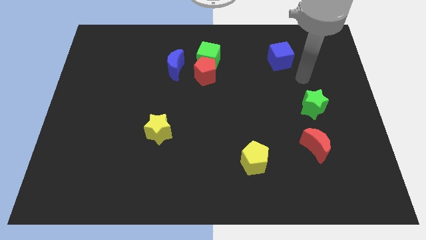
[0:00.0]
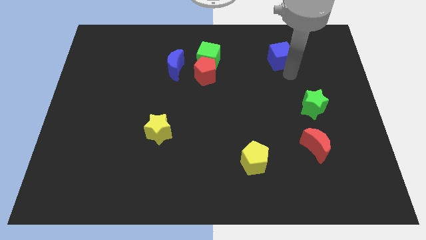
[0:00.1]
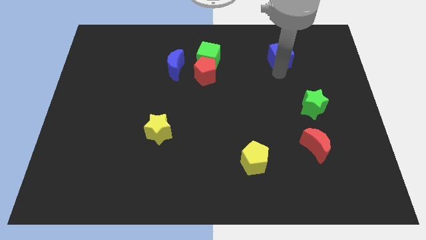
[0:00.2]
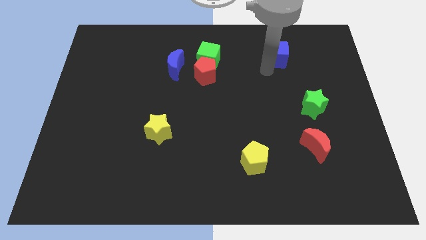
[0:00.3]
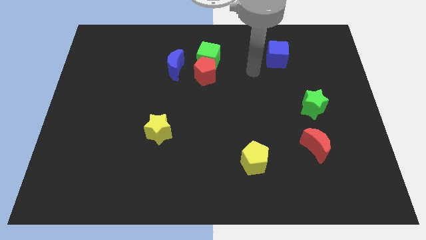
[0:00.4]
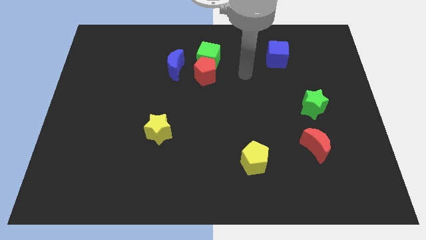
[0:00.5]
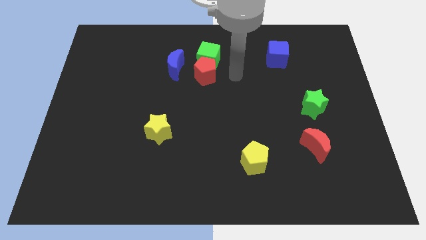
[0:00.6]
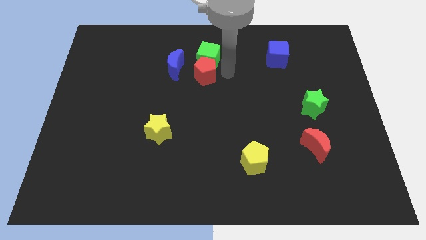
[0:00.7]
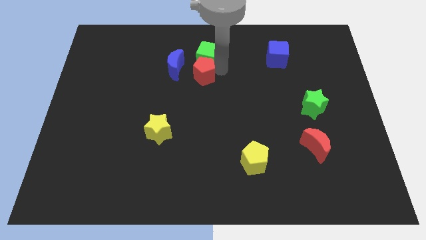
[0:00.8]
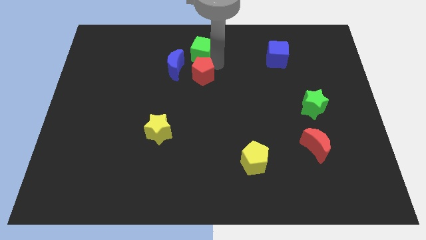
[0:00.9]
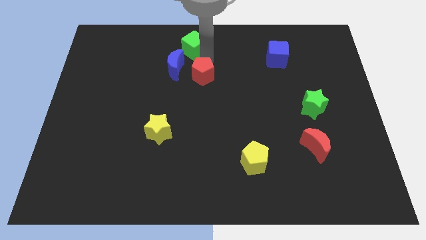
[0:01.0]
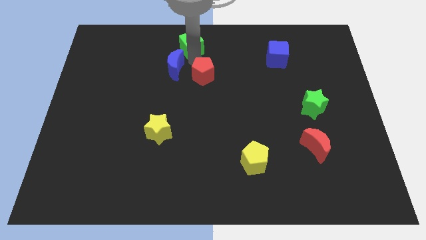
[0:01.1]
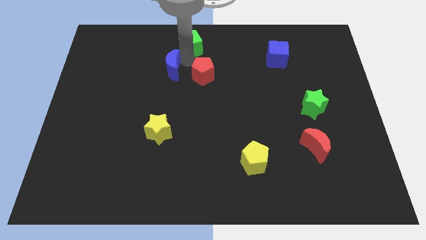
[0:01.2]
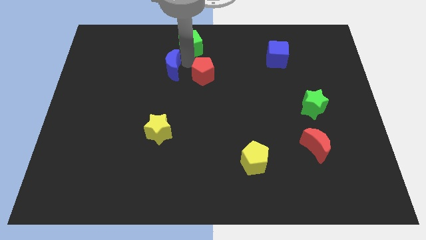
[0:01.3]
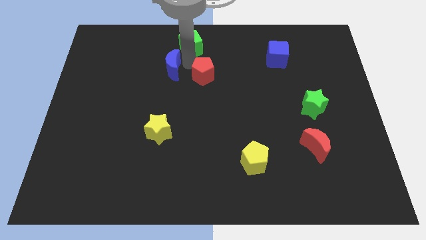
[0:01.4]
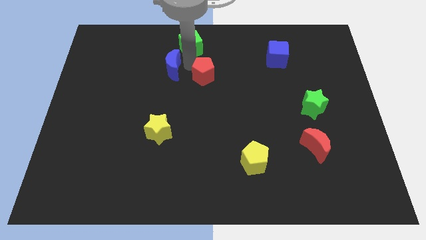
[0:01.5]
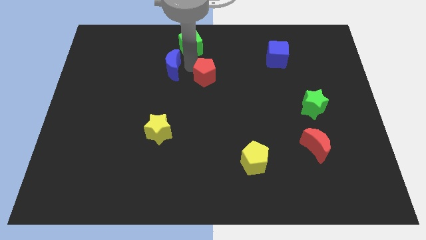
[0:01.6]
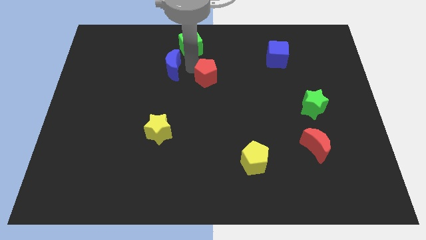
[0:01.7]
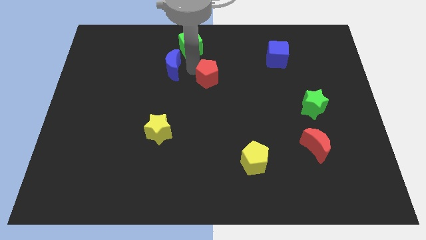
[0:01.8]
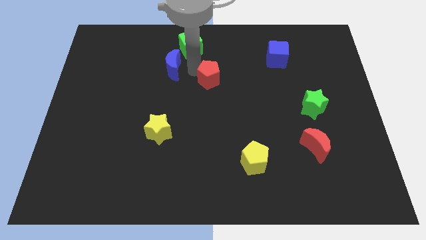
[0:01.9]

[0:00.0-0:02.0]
separate the red pentagon from the green cube and blue moon

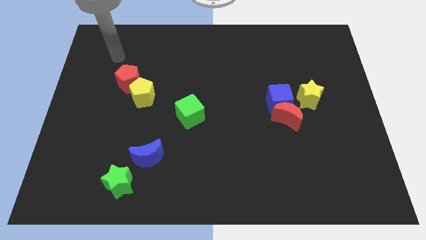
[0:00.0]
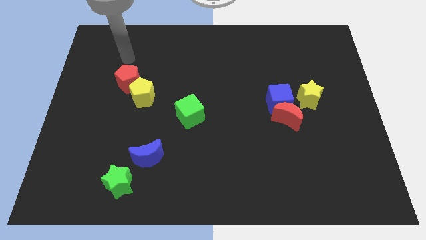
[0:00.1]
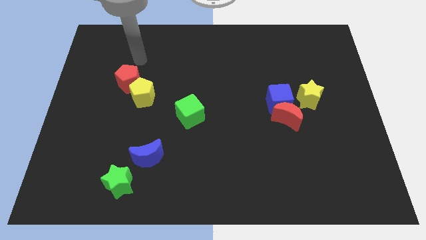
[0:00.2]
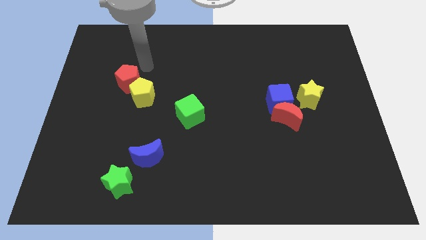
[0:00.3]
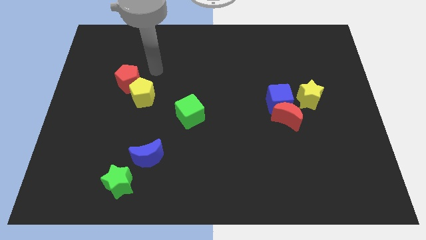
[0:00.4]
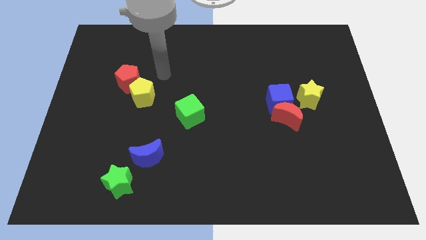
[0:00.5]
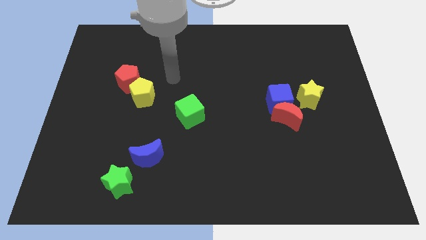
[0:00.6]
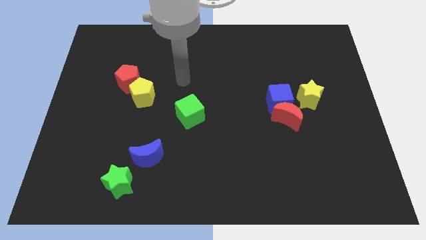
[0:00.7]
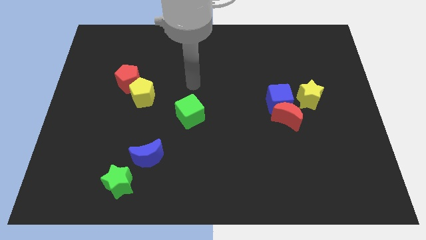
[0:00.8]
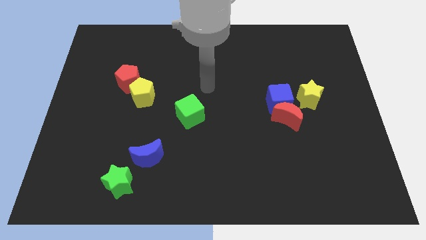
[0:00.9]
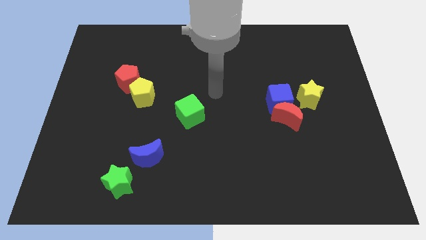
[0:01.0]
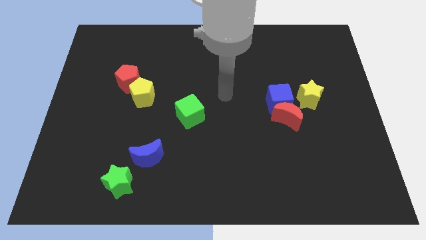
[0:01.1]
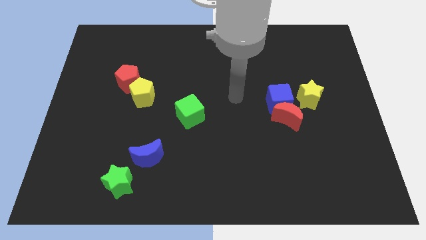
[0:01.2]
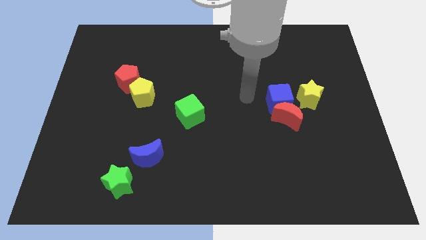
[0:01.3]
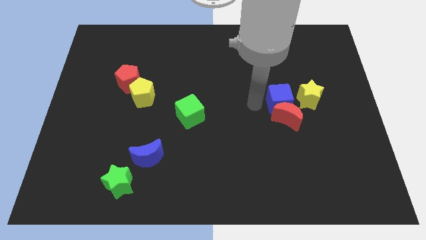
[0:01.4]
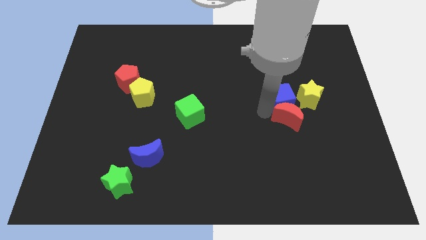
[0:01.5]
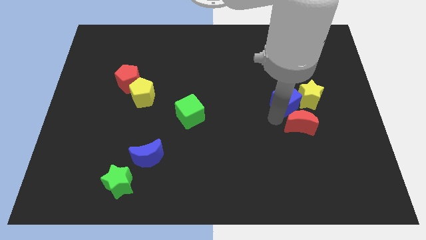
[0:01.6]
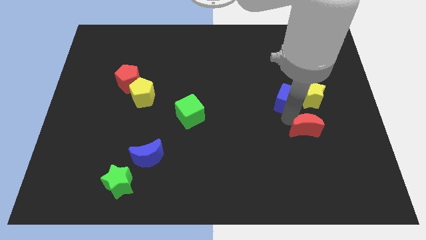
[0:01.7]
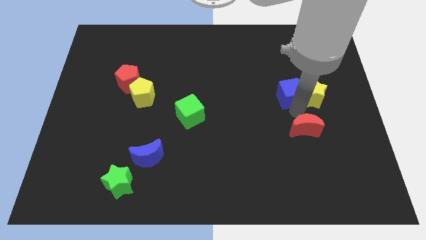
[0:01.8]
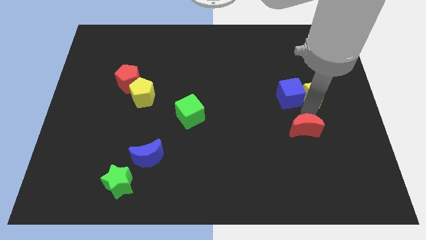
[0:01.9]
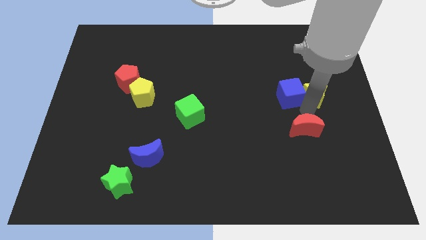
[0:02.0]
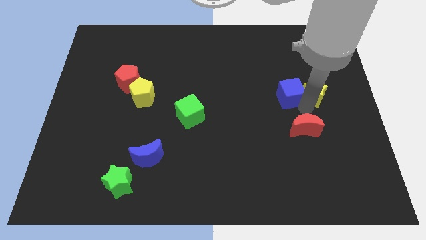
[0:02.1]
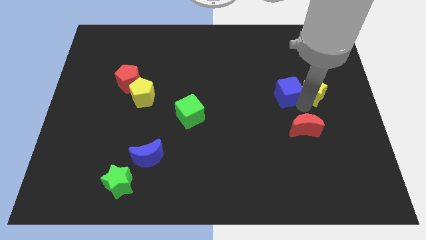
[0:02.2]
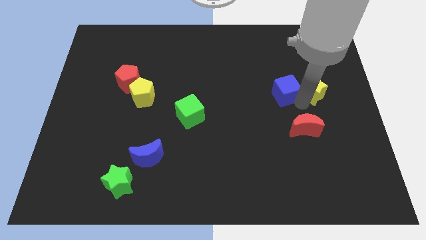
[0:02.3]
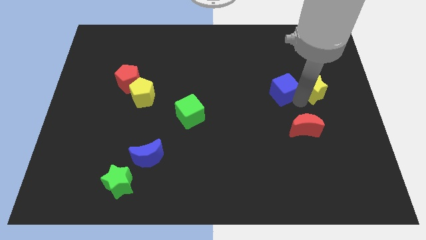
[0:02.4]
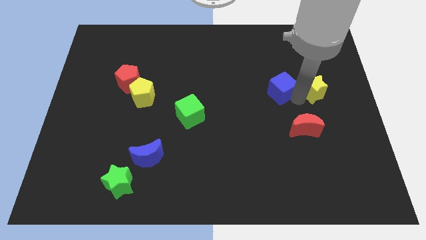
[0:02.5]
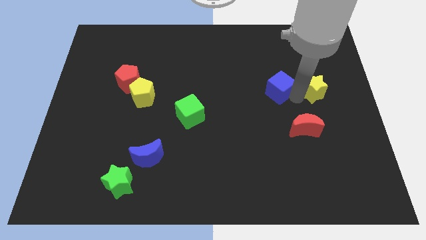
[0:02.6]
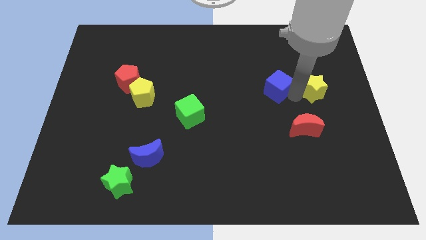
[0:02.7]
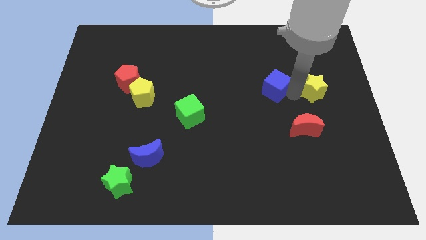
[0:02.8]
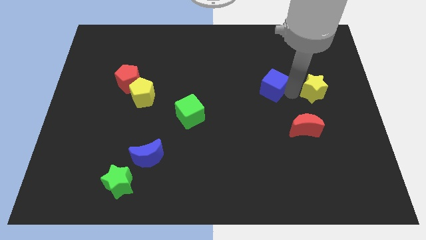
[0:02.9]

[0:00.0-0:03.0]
separate the blue cube from the red moon and yellow star

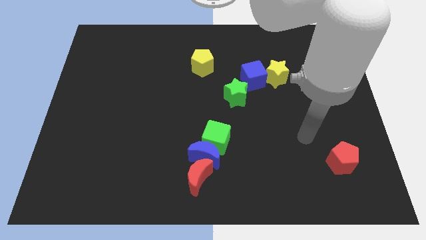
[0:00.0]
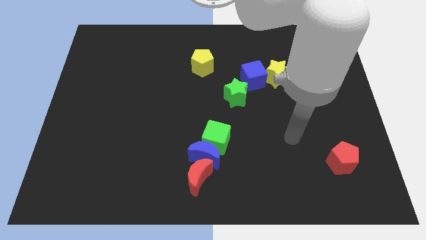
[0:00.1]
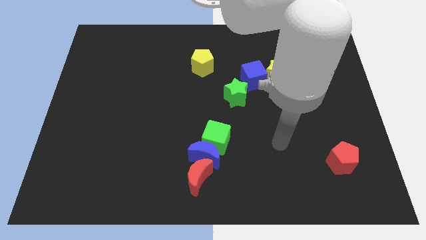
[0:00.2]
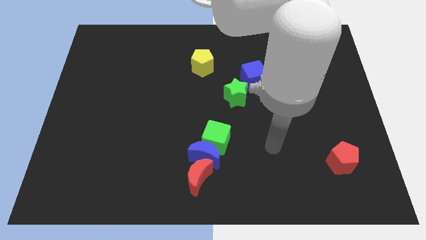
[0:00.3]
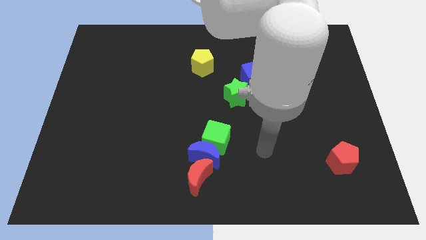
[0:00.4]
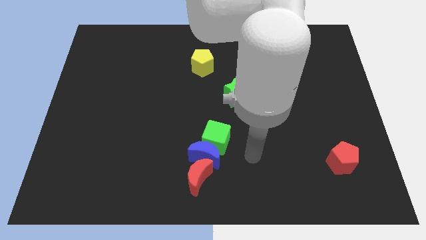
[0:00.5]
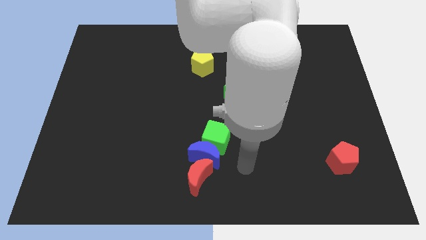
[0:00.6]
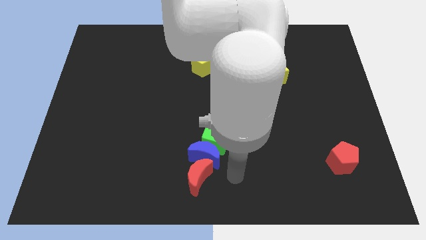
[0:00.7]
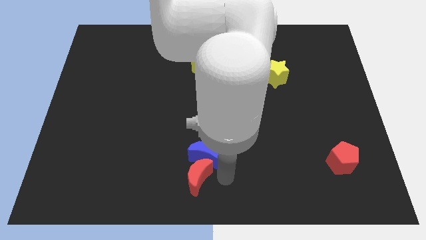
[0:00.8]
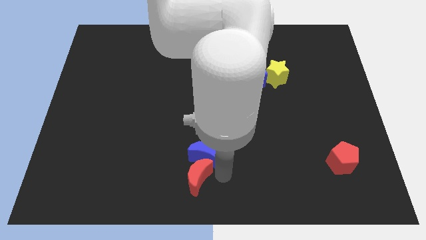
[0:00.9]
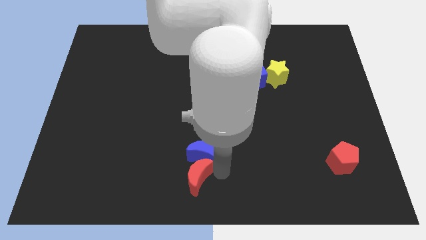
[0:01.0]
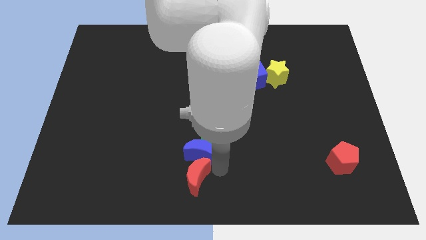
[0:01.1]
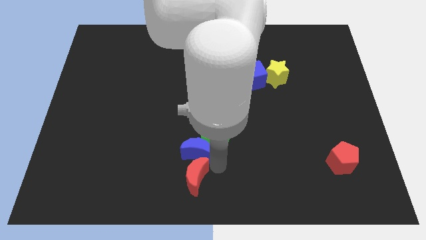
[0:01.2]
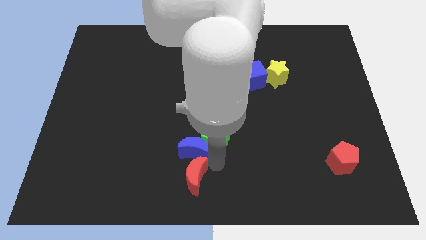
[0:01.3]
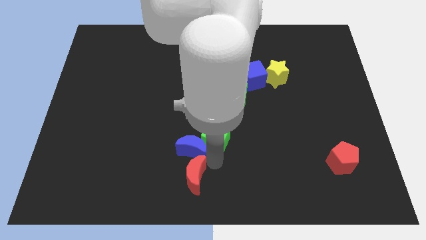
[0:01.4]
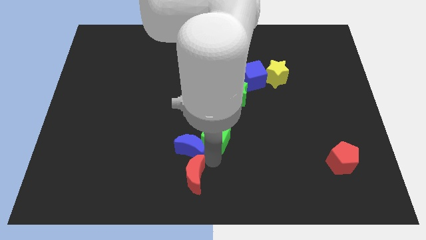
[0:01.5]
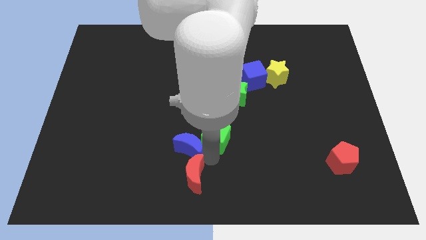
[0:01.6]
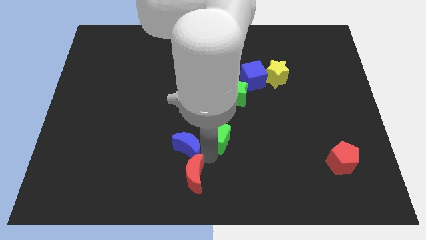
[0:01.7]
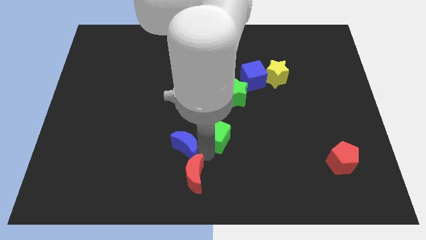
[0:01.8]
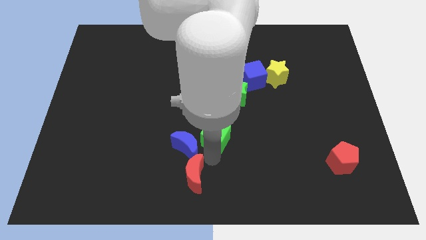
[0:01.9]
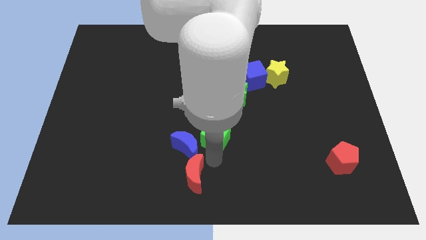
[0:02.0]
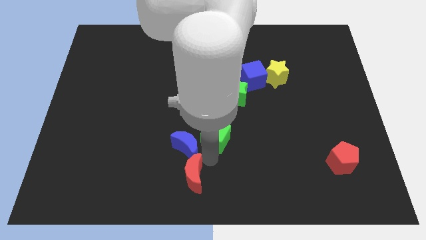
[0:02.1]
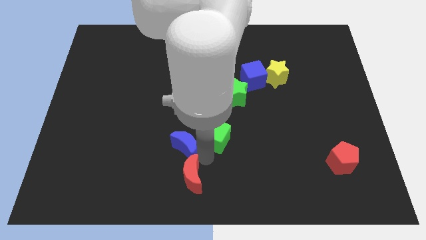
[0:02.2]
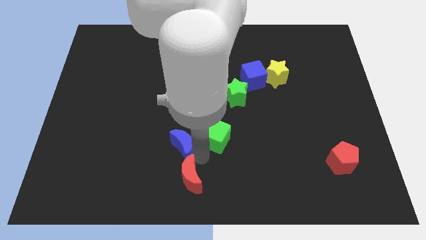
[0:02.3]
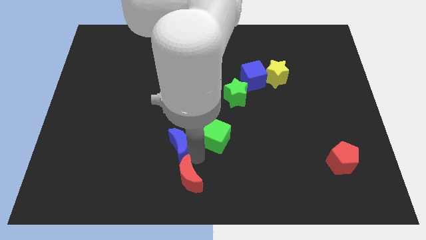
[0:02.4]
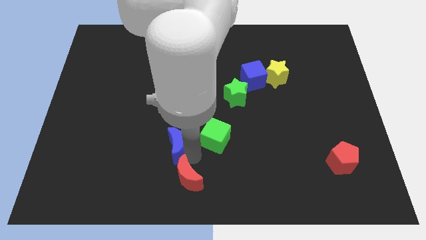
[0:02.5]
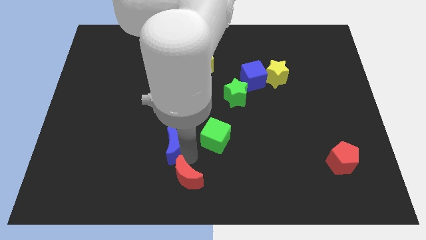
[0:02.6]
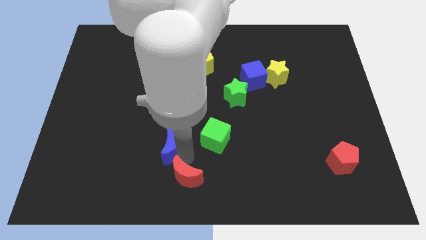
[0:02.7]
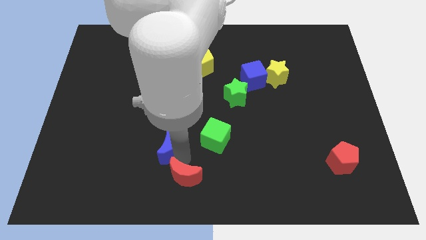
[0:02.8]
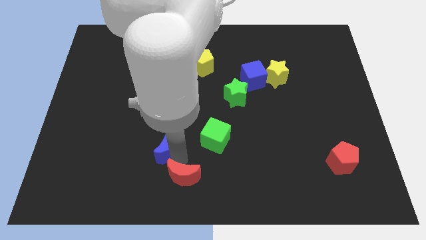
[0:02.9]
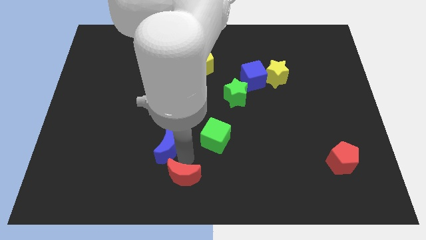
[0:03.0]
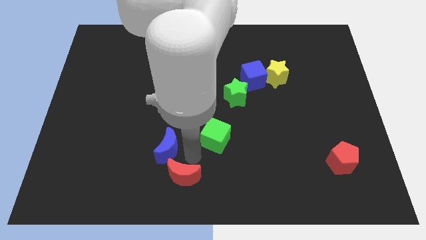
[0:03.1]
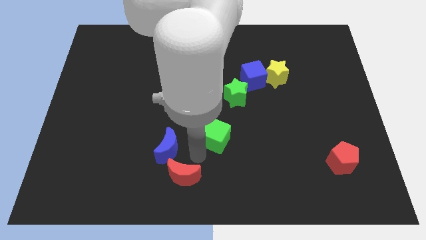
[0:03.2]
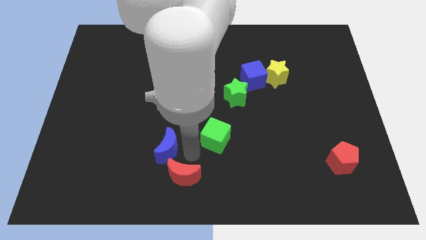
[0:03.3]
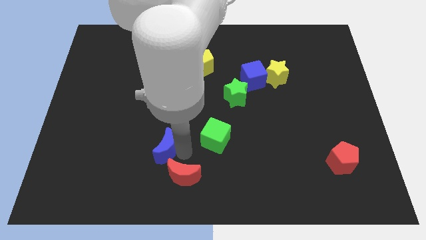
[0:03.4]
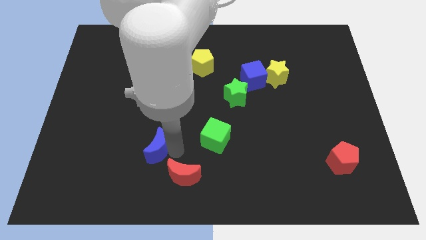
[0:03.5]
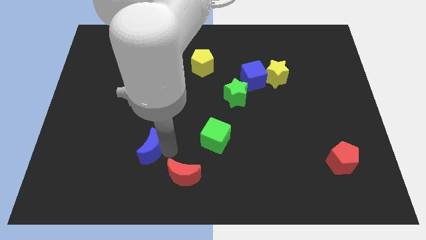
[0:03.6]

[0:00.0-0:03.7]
pull the blue moon apart from the green cube and red moon

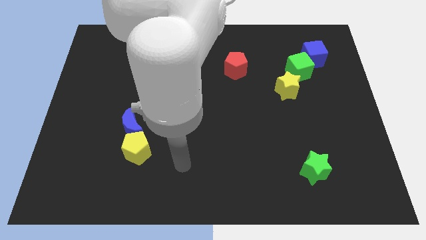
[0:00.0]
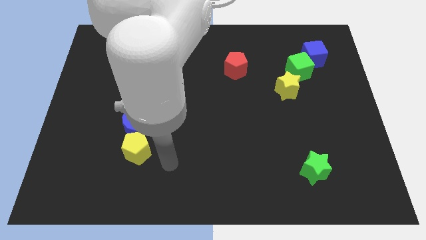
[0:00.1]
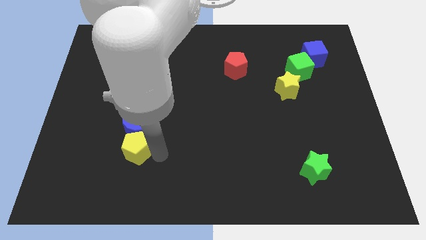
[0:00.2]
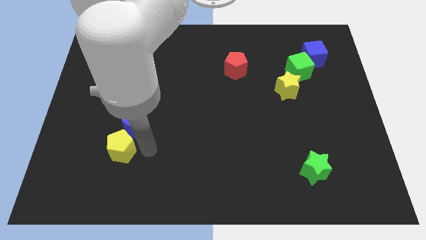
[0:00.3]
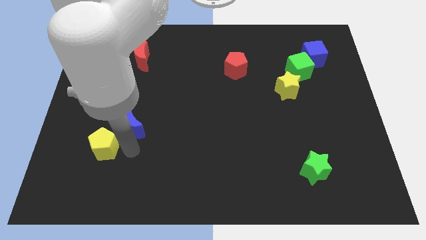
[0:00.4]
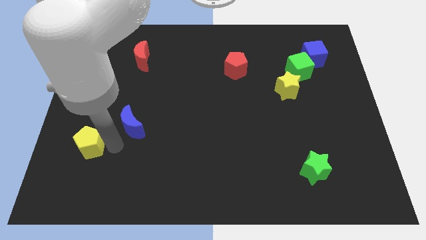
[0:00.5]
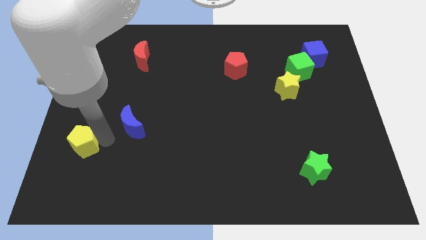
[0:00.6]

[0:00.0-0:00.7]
separate the blue moon from the yellow pentagon
